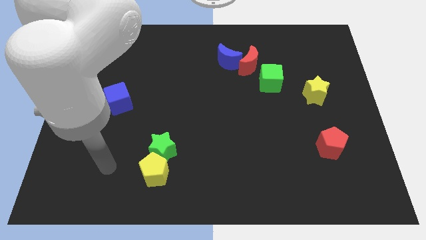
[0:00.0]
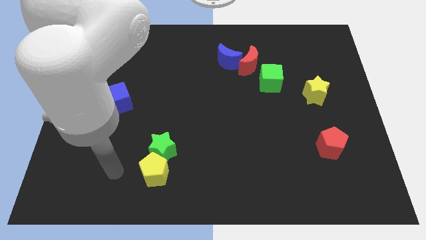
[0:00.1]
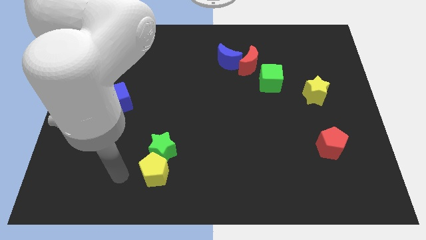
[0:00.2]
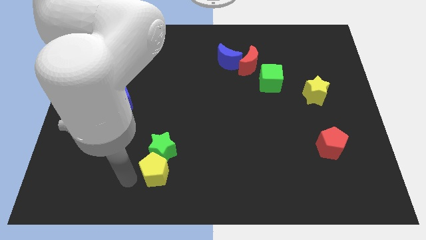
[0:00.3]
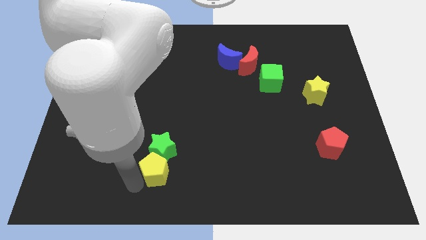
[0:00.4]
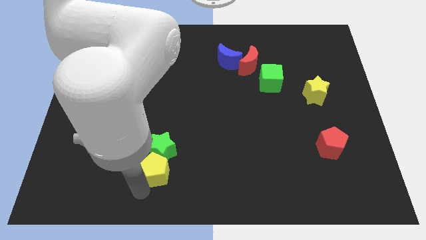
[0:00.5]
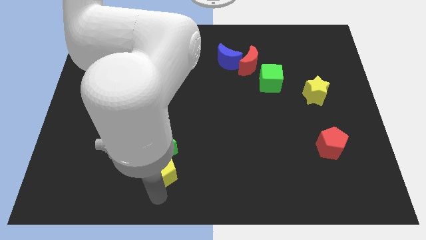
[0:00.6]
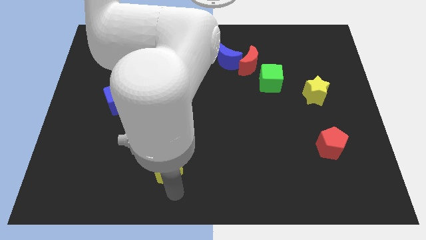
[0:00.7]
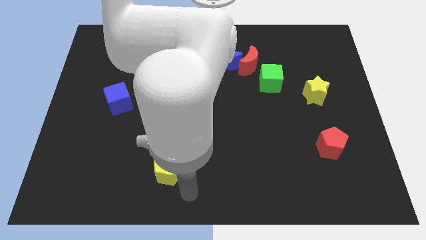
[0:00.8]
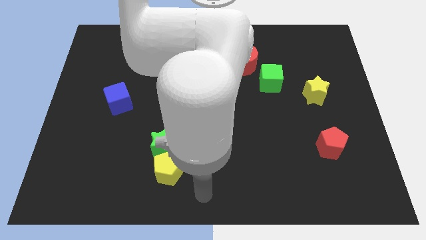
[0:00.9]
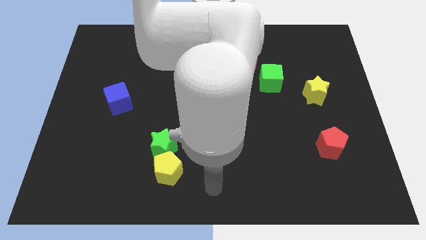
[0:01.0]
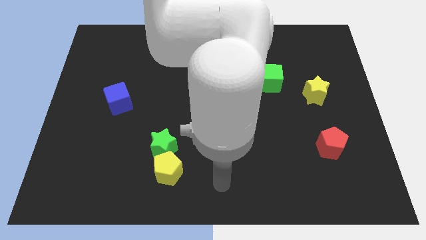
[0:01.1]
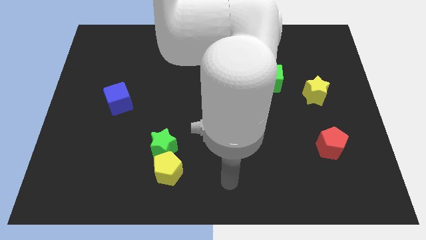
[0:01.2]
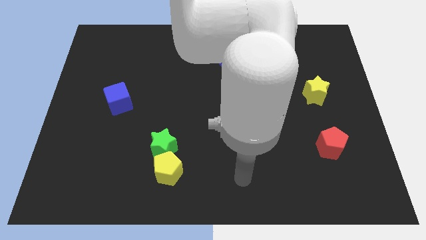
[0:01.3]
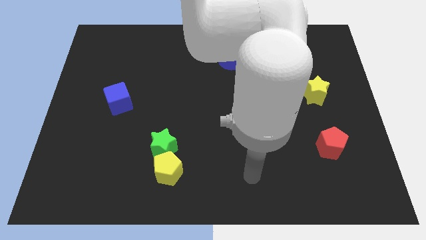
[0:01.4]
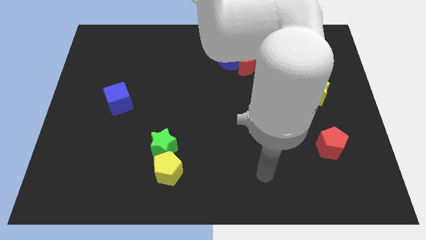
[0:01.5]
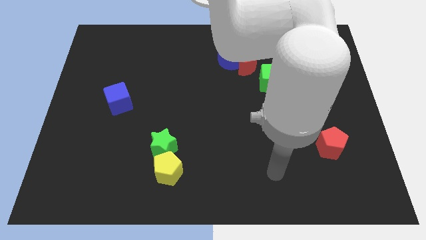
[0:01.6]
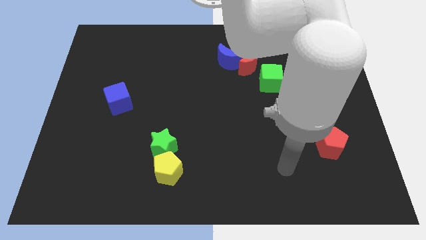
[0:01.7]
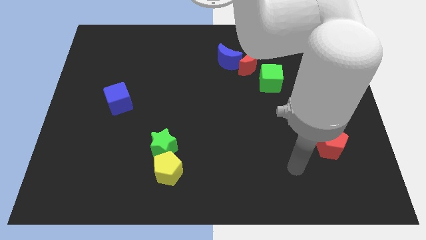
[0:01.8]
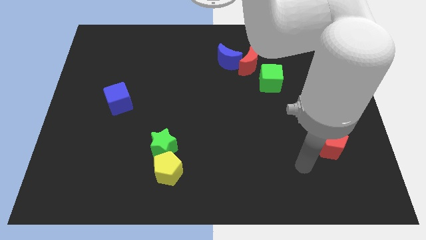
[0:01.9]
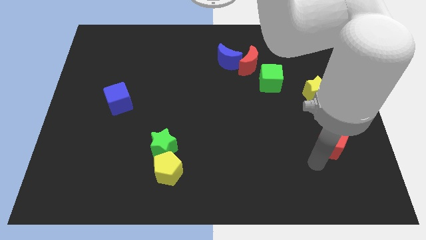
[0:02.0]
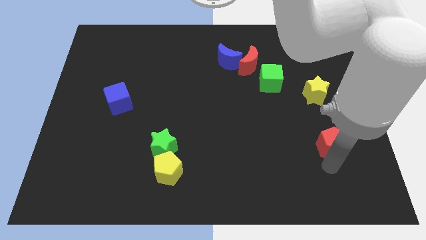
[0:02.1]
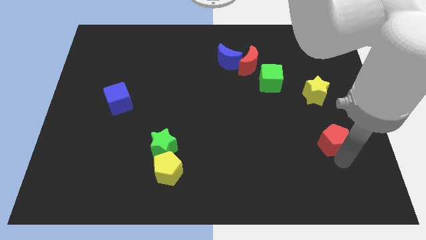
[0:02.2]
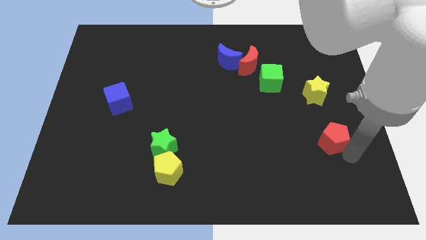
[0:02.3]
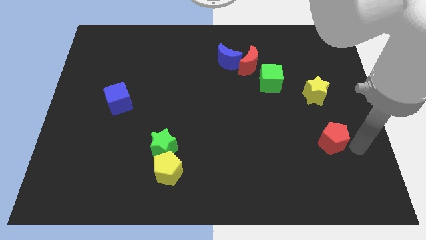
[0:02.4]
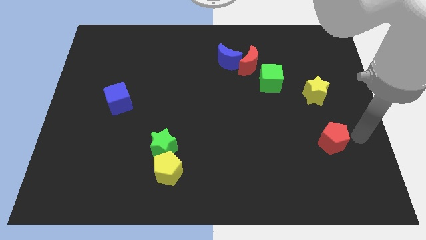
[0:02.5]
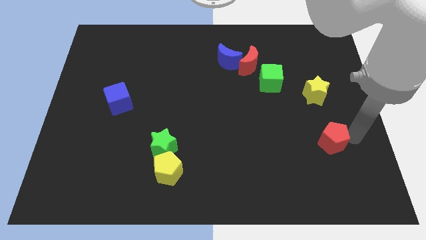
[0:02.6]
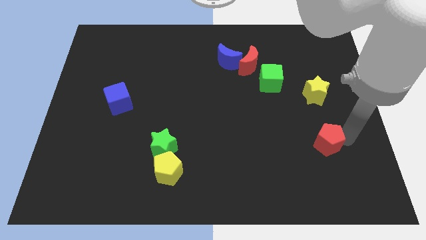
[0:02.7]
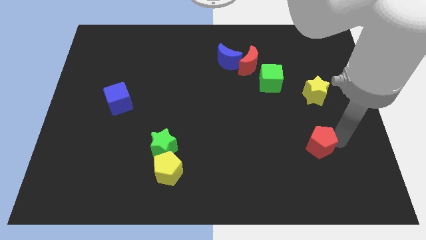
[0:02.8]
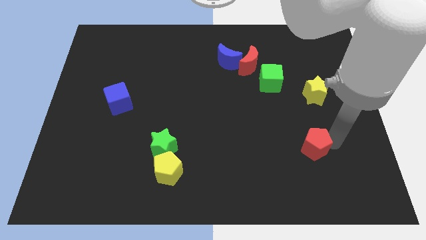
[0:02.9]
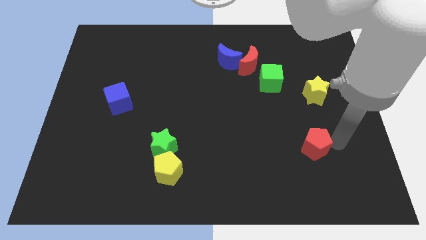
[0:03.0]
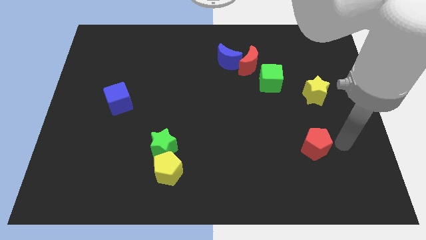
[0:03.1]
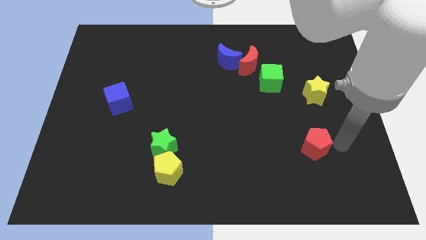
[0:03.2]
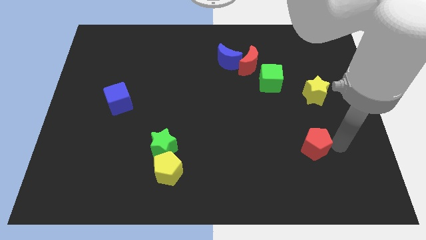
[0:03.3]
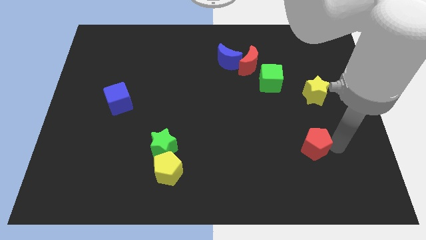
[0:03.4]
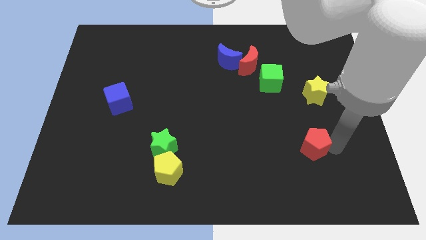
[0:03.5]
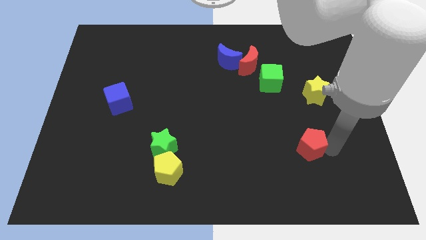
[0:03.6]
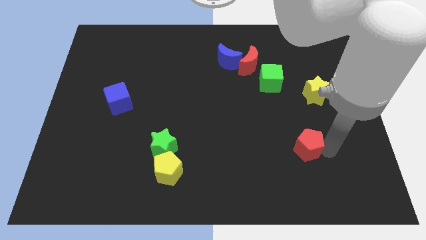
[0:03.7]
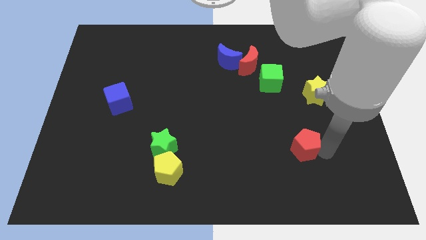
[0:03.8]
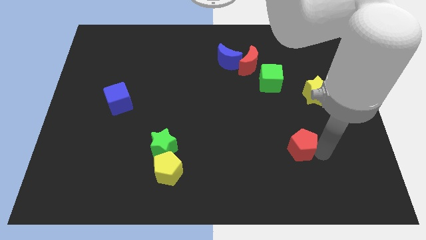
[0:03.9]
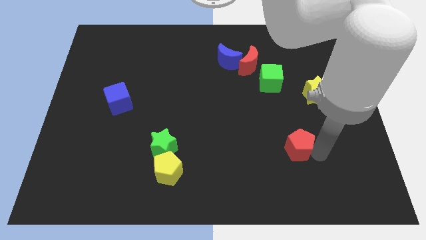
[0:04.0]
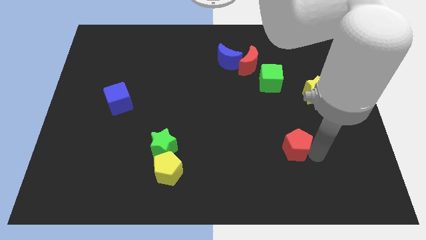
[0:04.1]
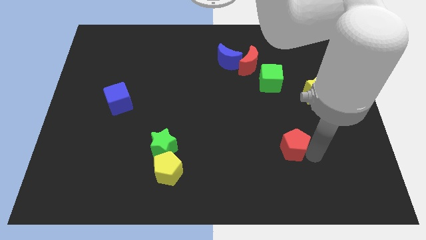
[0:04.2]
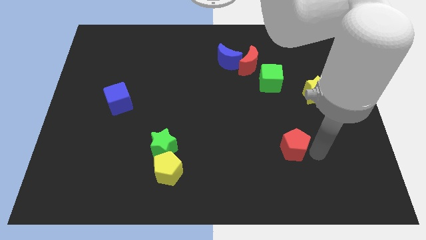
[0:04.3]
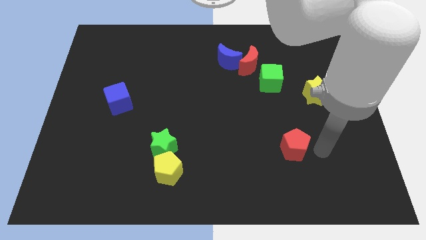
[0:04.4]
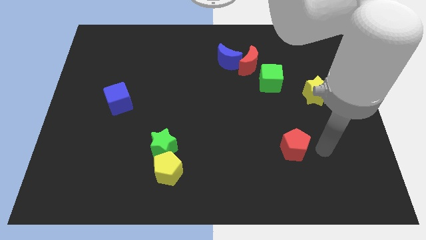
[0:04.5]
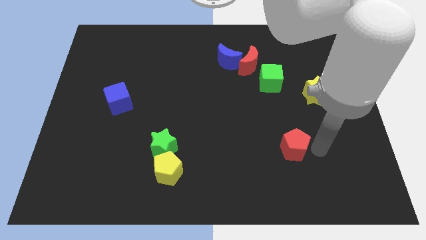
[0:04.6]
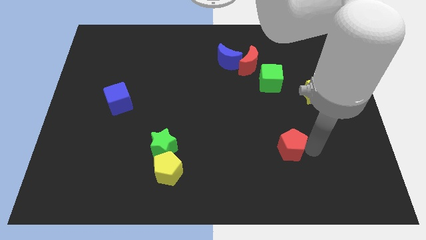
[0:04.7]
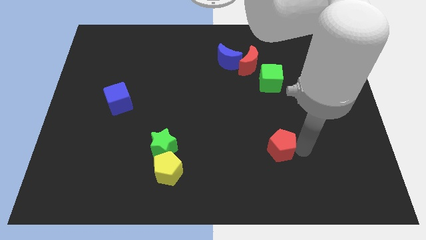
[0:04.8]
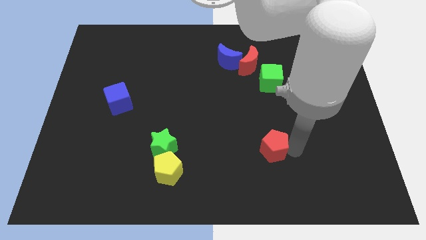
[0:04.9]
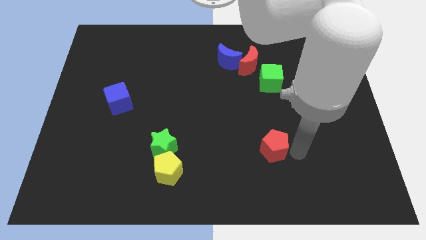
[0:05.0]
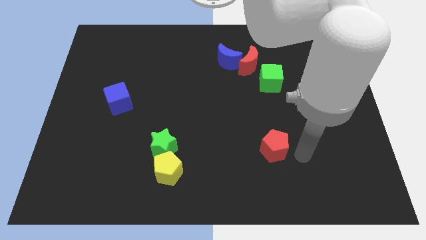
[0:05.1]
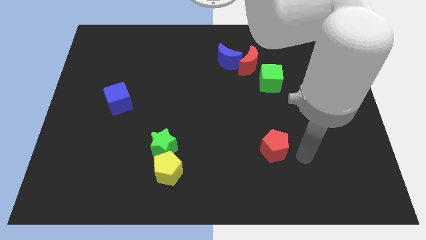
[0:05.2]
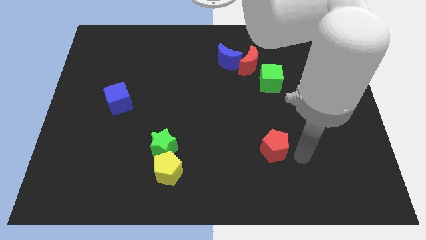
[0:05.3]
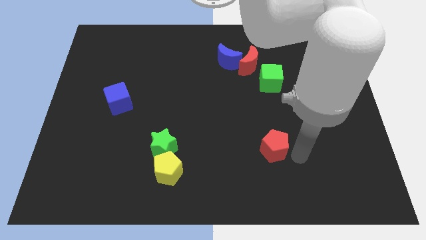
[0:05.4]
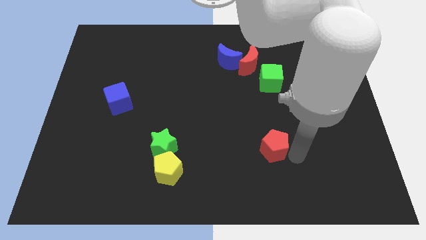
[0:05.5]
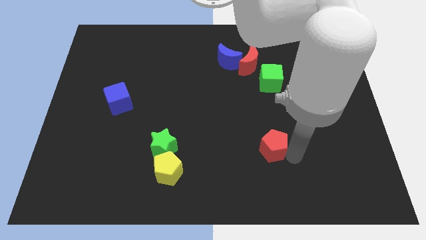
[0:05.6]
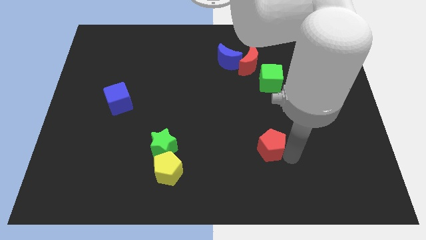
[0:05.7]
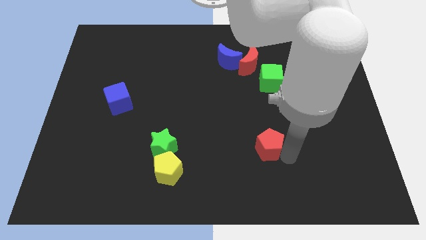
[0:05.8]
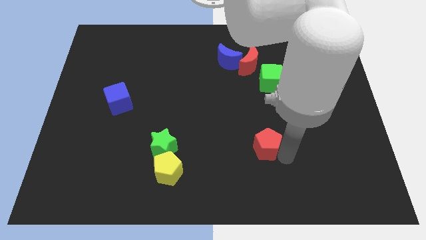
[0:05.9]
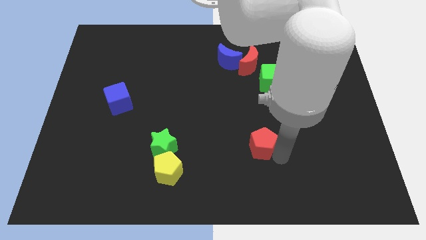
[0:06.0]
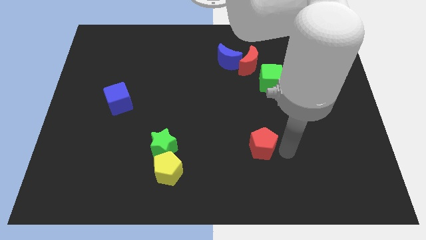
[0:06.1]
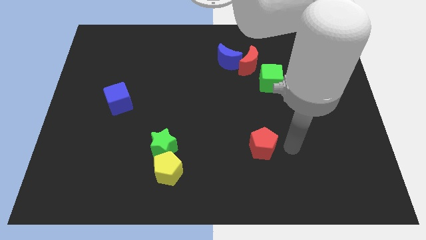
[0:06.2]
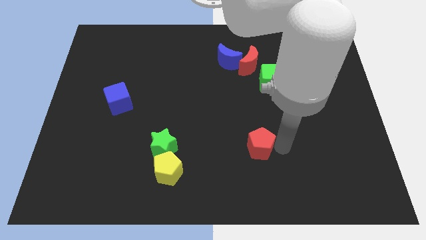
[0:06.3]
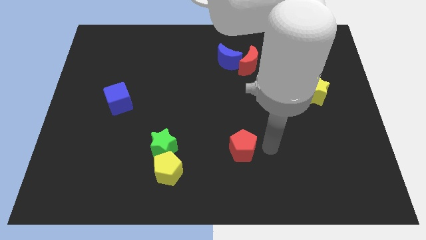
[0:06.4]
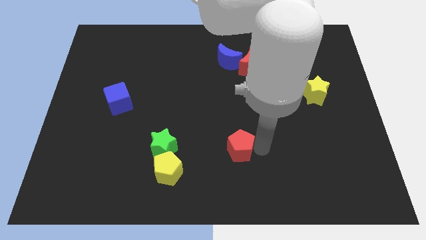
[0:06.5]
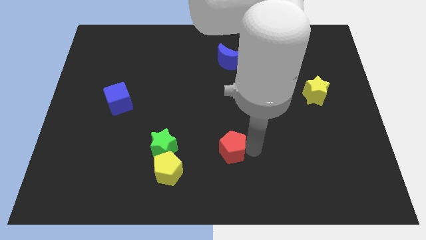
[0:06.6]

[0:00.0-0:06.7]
push the red pentagon right of the green star

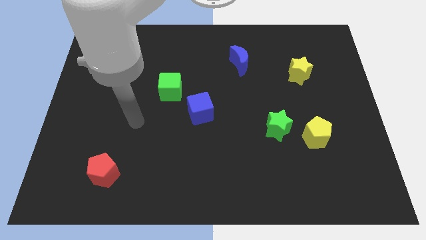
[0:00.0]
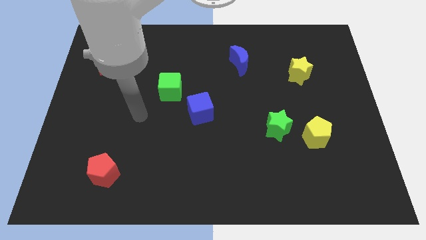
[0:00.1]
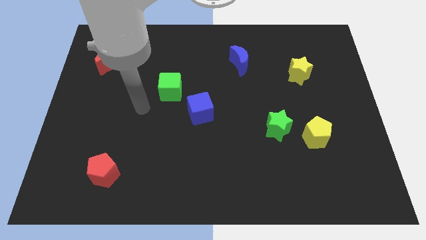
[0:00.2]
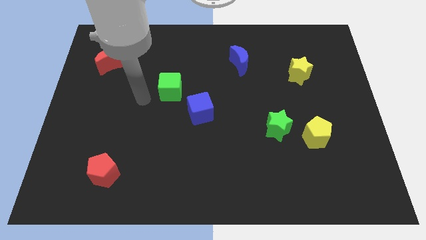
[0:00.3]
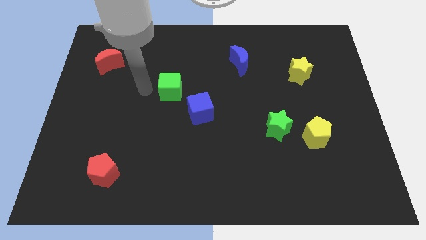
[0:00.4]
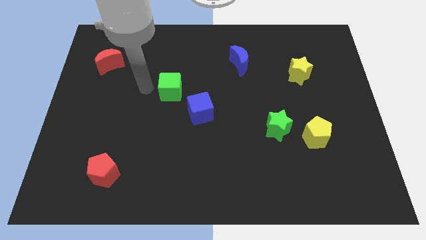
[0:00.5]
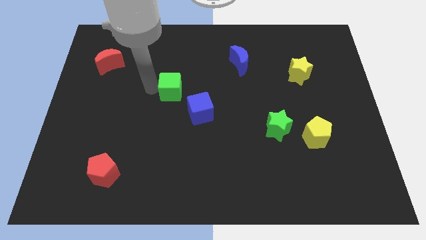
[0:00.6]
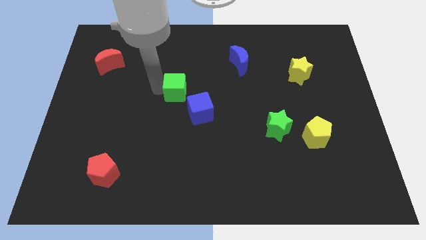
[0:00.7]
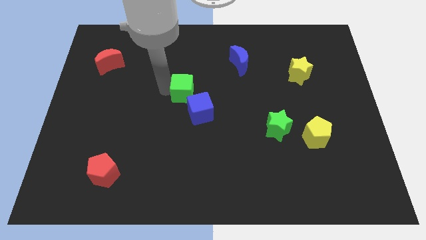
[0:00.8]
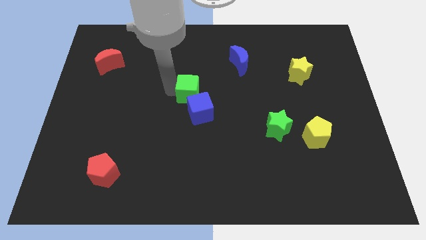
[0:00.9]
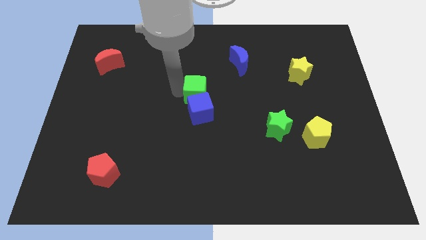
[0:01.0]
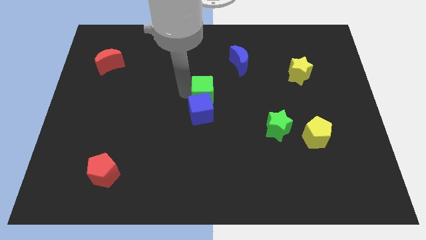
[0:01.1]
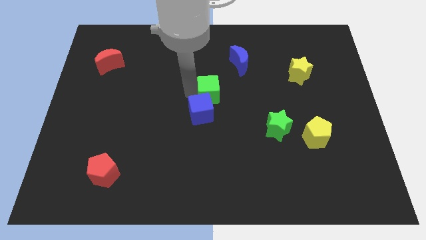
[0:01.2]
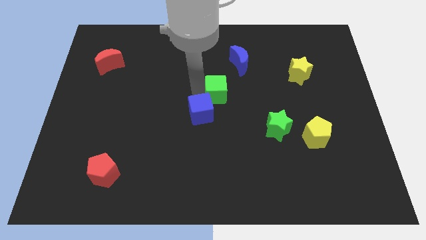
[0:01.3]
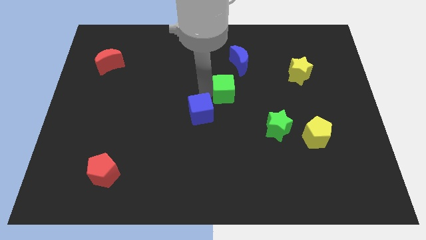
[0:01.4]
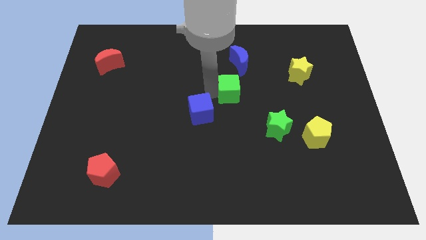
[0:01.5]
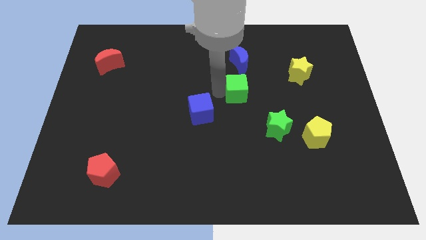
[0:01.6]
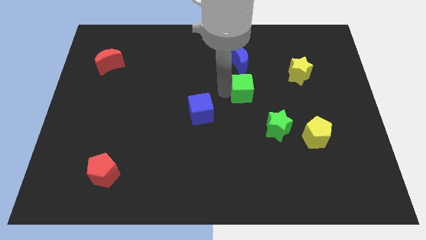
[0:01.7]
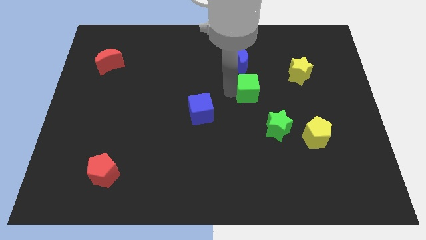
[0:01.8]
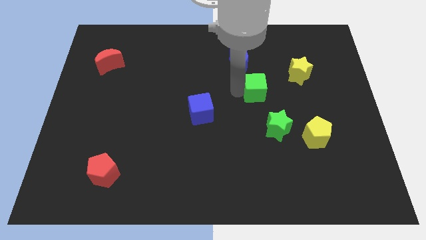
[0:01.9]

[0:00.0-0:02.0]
push the green cube above the green star
